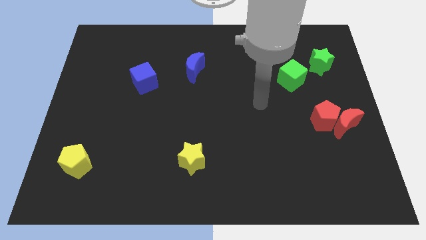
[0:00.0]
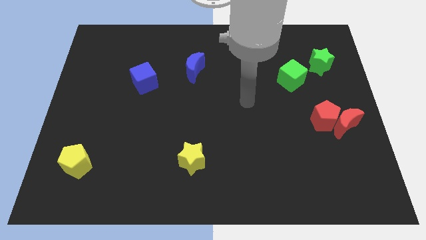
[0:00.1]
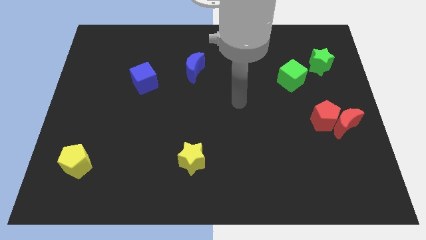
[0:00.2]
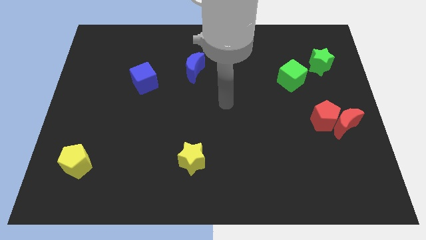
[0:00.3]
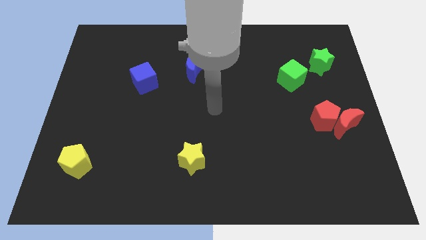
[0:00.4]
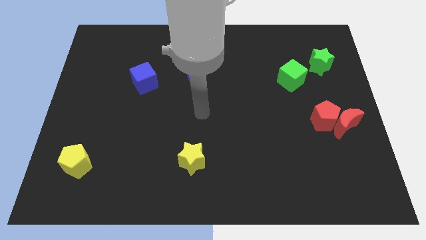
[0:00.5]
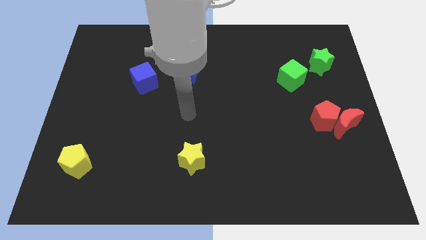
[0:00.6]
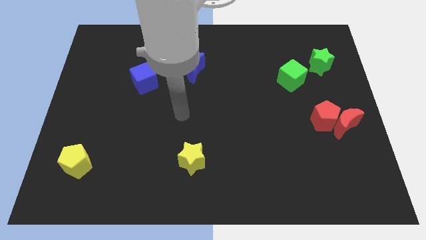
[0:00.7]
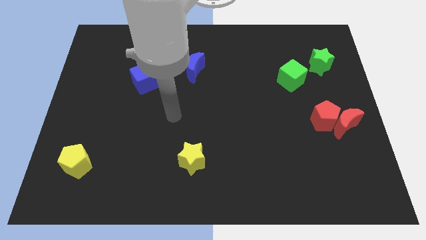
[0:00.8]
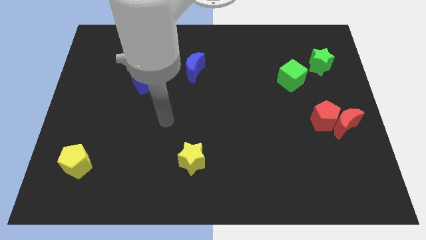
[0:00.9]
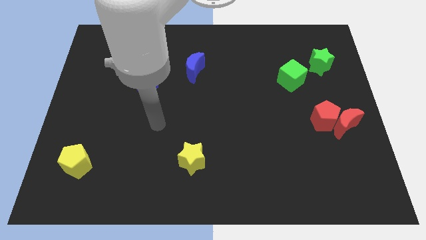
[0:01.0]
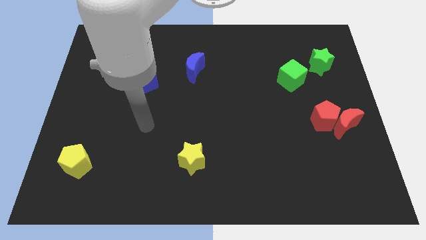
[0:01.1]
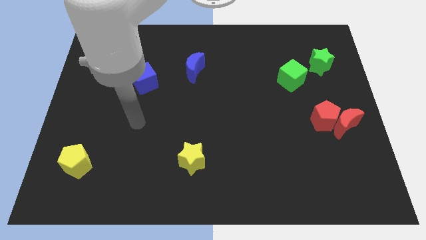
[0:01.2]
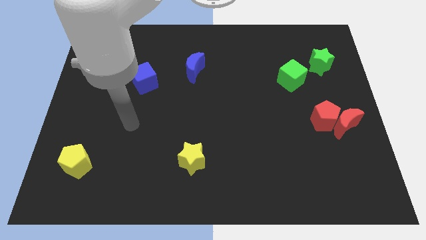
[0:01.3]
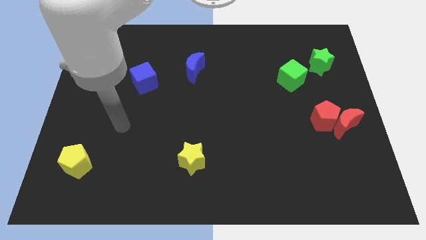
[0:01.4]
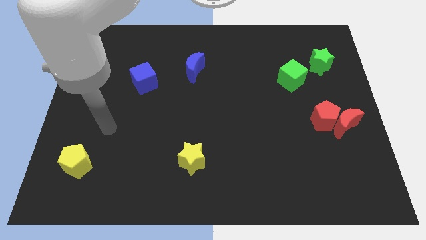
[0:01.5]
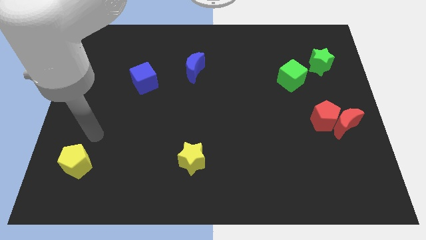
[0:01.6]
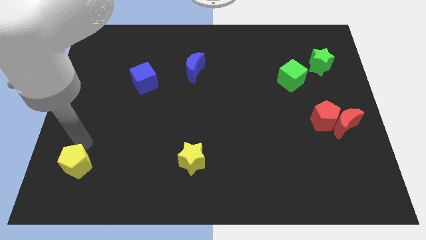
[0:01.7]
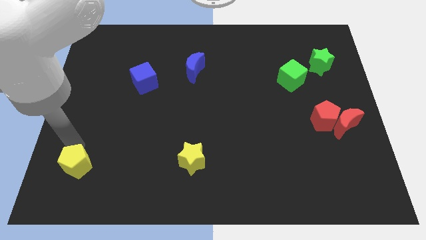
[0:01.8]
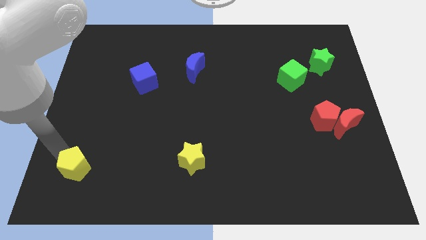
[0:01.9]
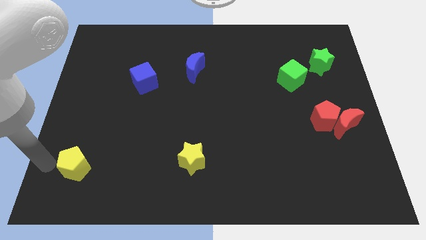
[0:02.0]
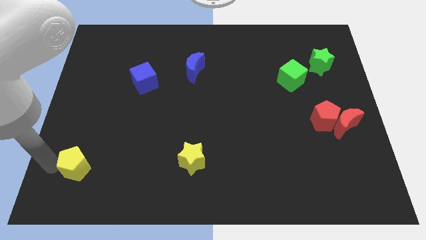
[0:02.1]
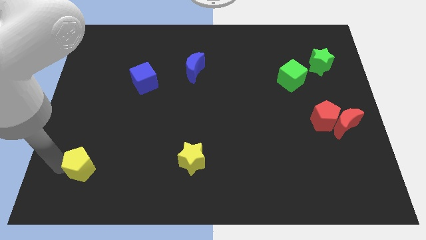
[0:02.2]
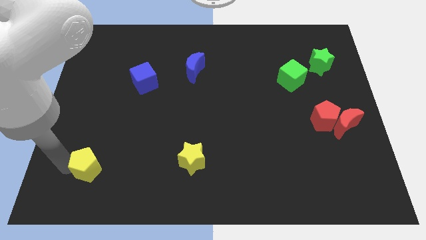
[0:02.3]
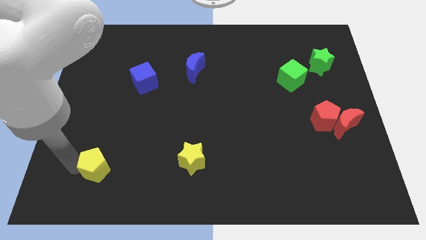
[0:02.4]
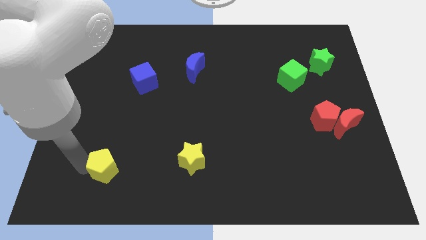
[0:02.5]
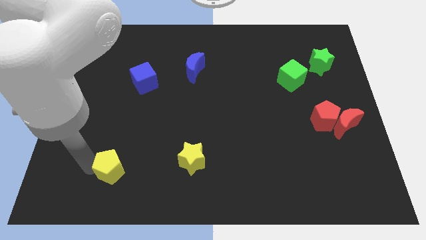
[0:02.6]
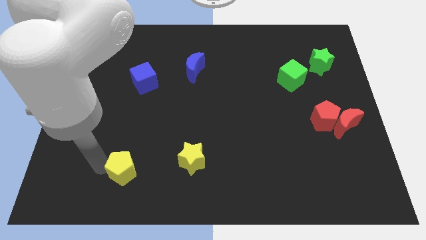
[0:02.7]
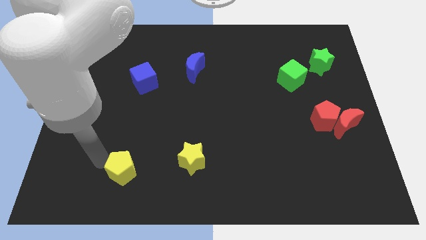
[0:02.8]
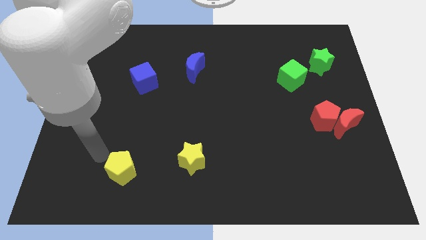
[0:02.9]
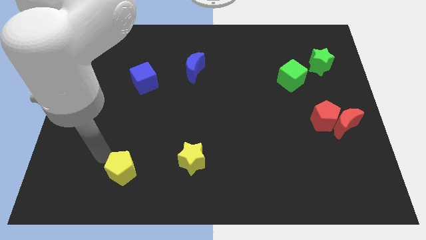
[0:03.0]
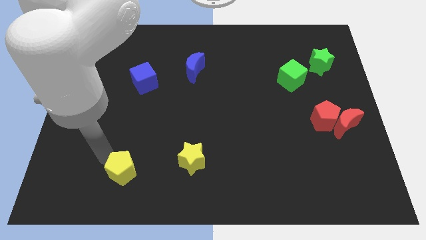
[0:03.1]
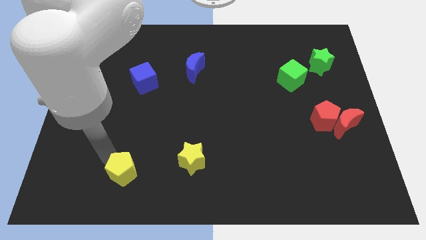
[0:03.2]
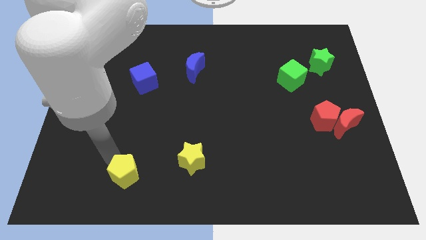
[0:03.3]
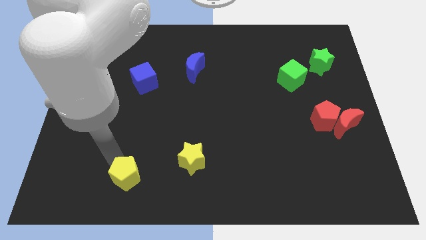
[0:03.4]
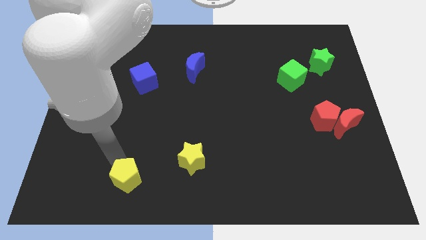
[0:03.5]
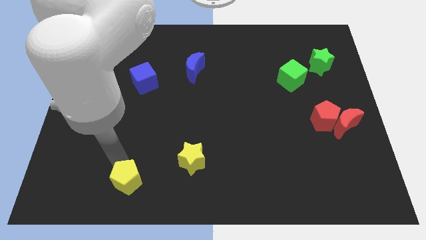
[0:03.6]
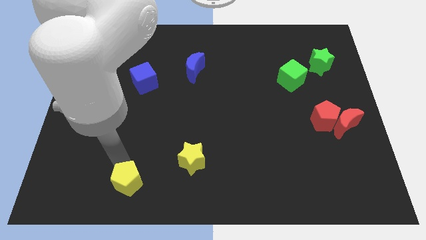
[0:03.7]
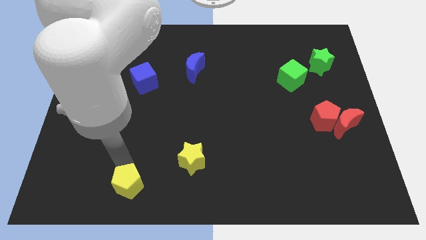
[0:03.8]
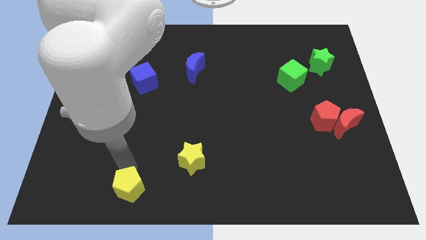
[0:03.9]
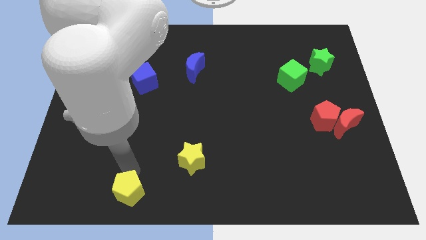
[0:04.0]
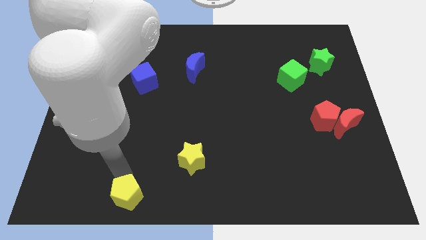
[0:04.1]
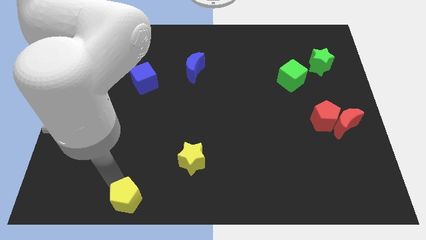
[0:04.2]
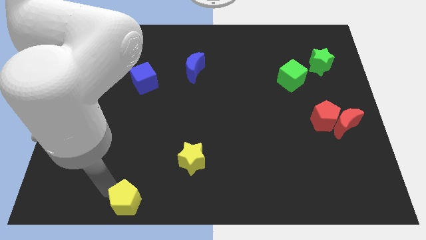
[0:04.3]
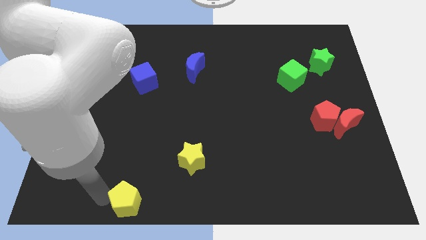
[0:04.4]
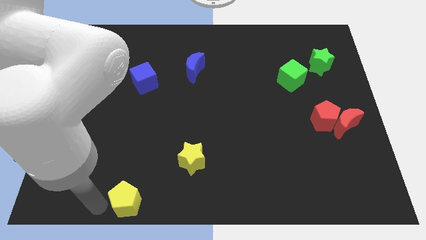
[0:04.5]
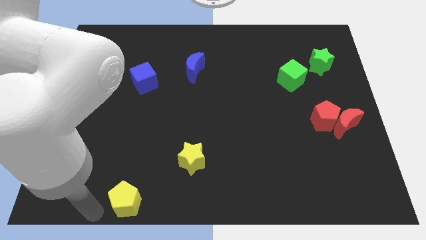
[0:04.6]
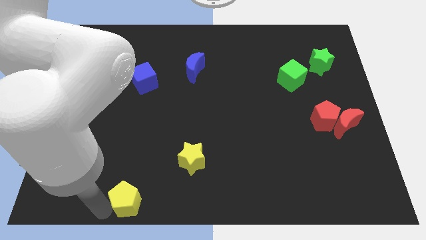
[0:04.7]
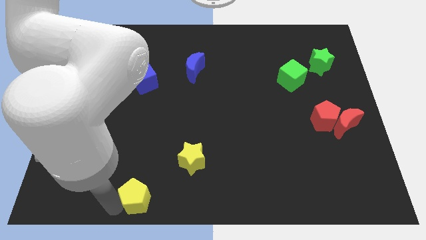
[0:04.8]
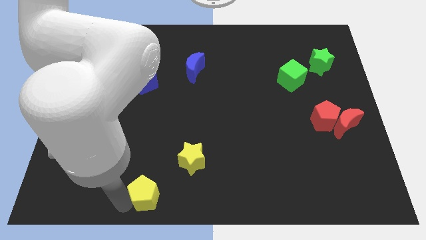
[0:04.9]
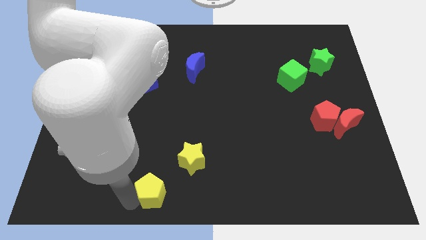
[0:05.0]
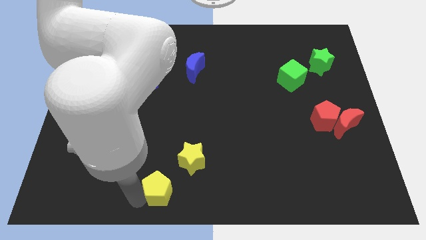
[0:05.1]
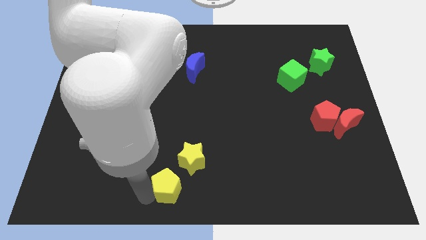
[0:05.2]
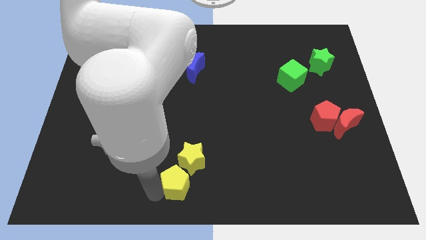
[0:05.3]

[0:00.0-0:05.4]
move the yellow pentagon to the right

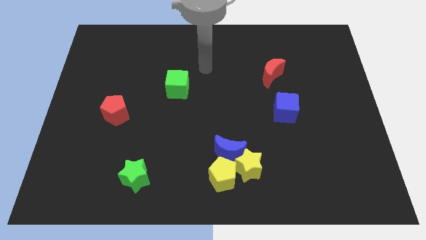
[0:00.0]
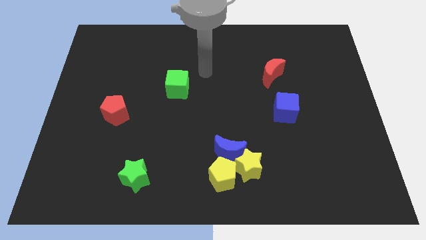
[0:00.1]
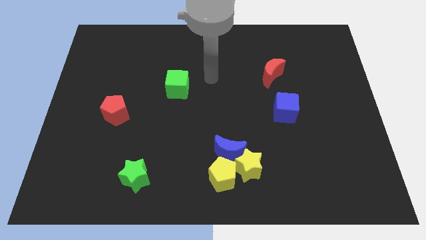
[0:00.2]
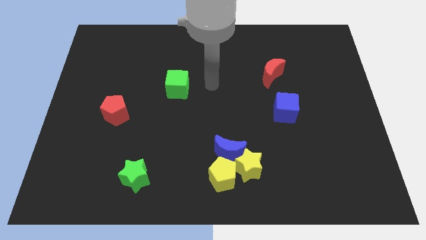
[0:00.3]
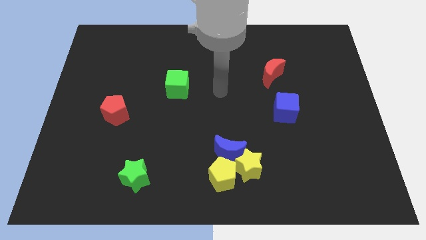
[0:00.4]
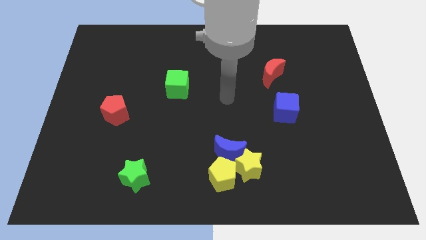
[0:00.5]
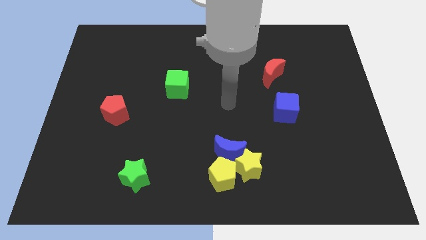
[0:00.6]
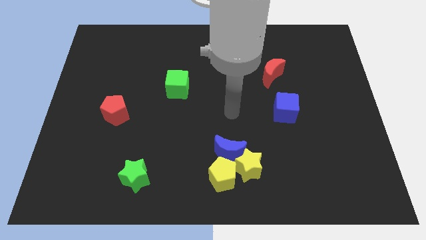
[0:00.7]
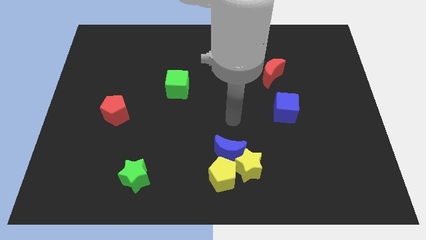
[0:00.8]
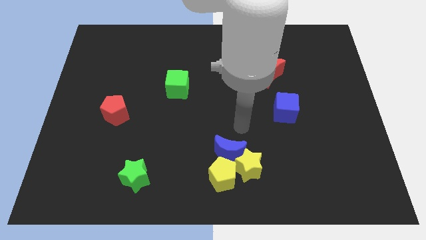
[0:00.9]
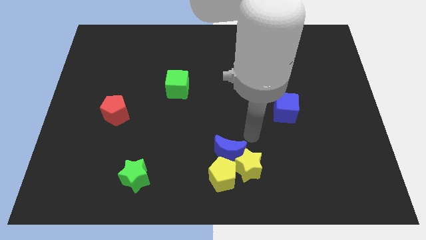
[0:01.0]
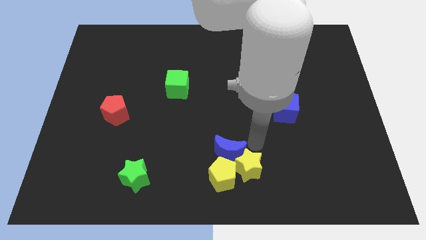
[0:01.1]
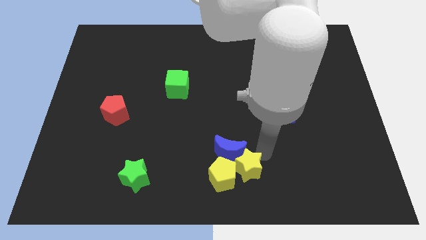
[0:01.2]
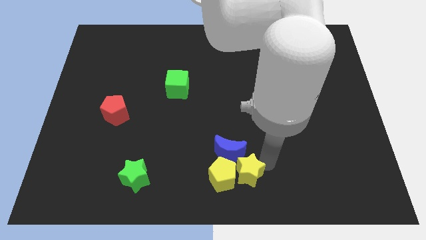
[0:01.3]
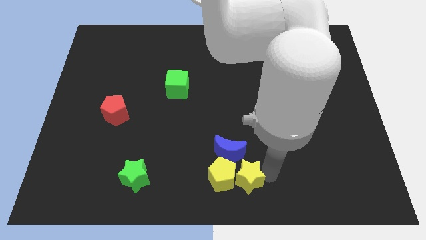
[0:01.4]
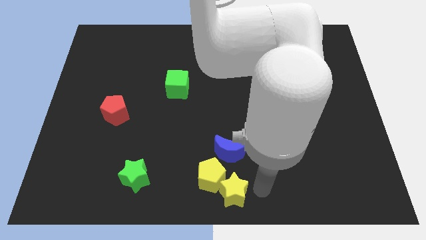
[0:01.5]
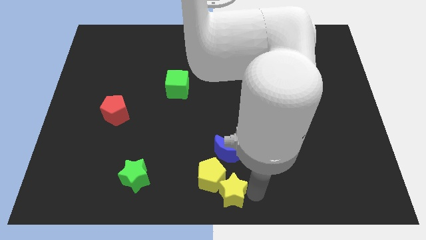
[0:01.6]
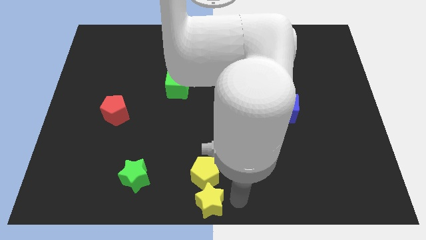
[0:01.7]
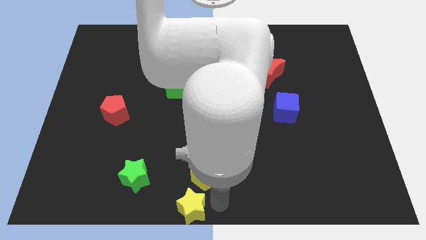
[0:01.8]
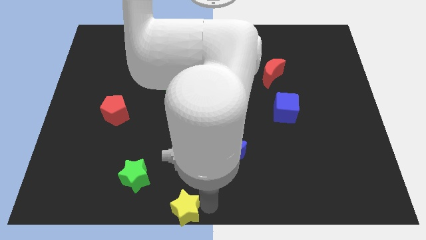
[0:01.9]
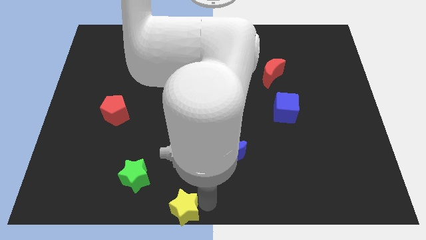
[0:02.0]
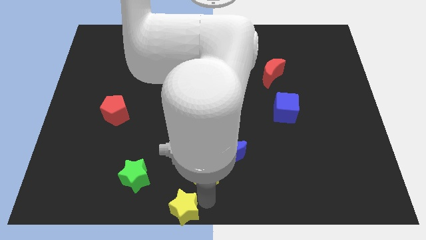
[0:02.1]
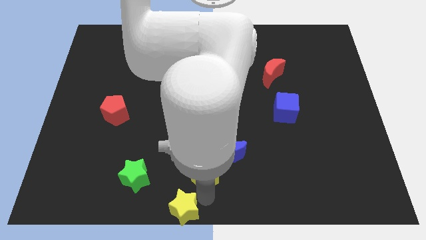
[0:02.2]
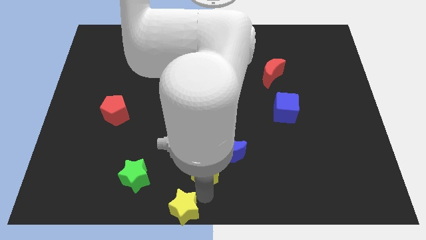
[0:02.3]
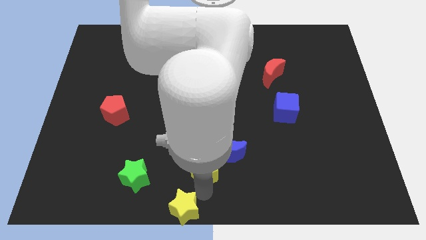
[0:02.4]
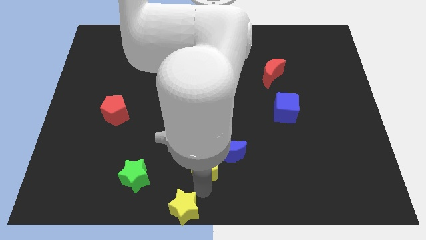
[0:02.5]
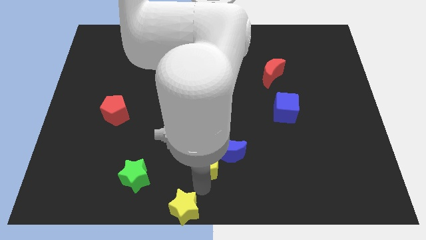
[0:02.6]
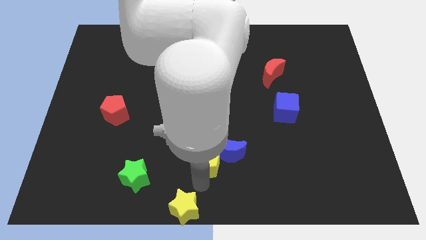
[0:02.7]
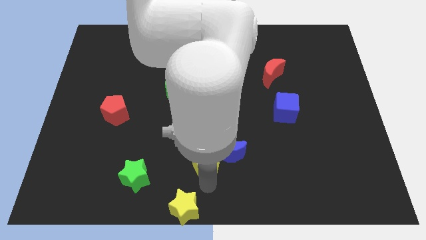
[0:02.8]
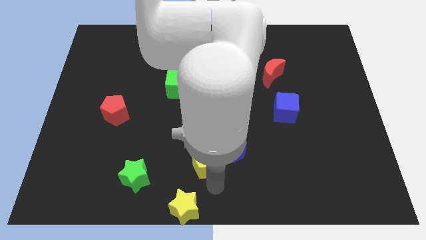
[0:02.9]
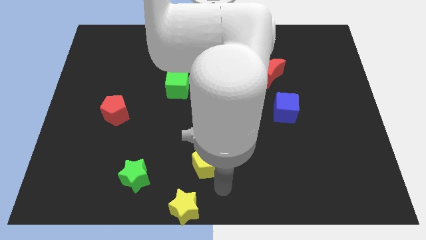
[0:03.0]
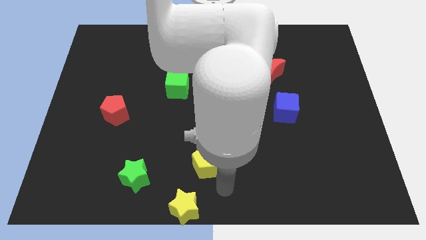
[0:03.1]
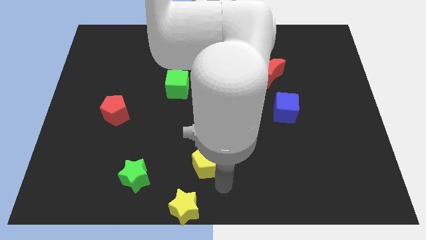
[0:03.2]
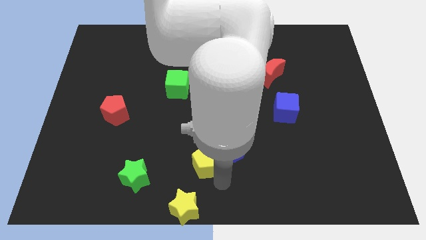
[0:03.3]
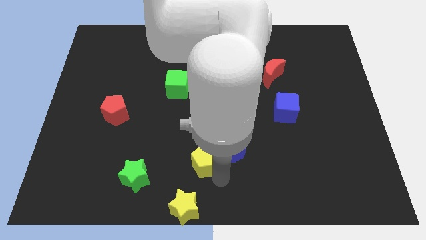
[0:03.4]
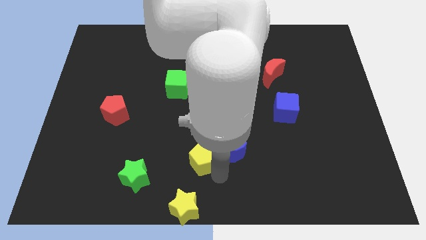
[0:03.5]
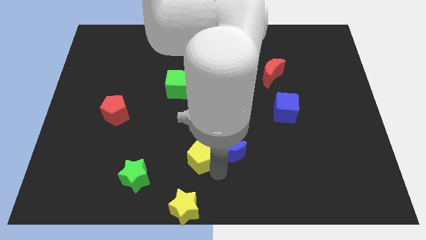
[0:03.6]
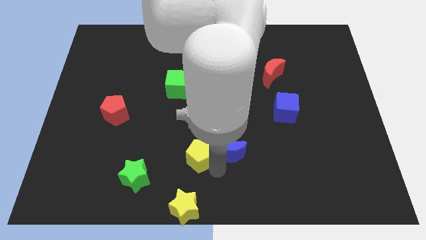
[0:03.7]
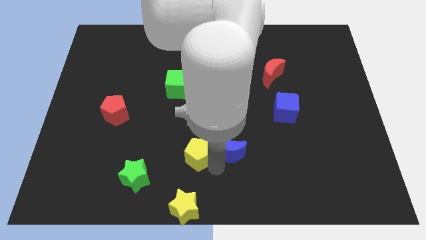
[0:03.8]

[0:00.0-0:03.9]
push the yellow pentagon diagonally up and left a bit
